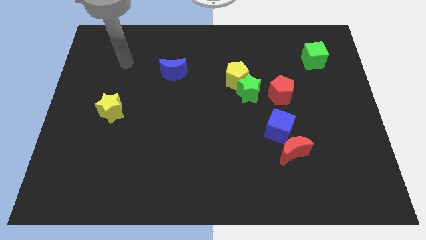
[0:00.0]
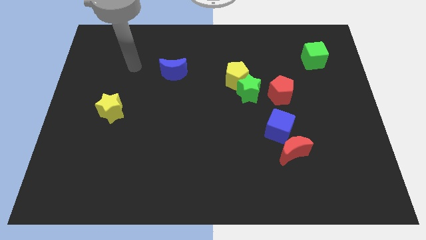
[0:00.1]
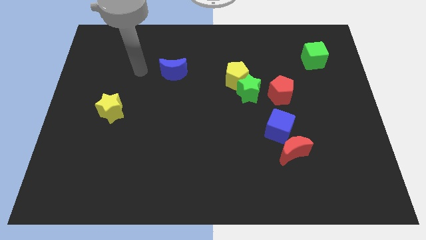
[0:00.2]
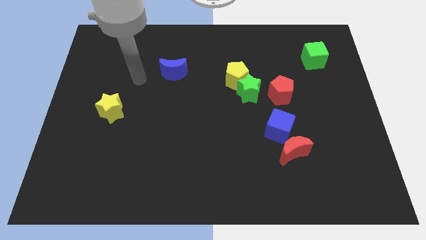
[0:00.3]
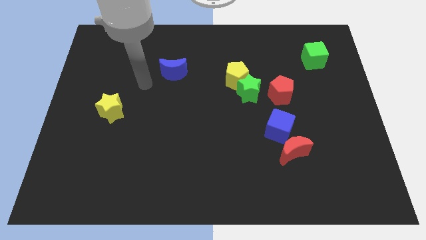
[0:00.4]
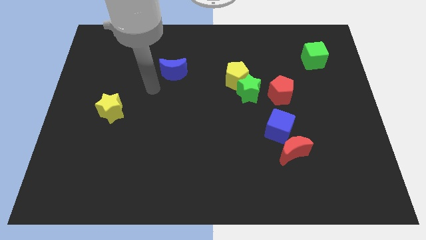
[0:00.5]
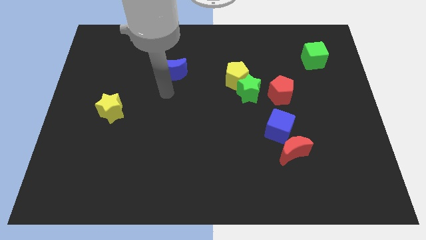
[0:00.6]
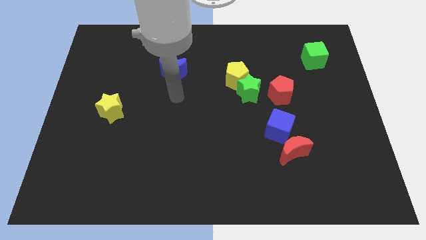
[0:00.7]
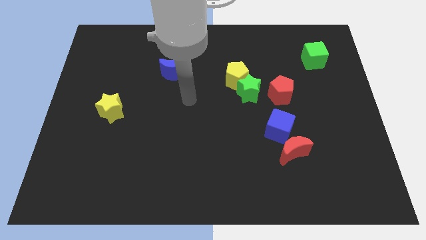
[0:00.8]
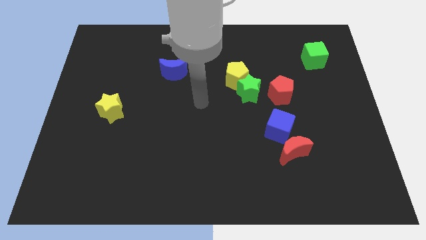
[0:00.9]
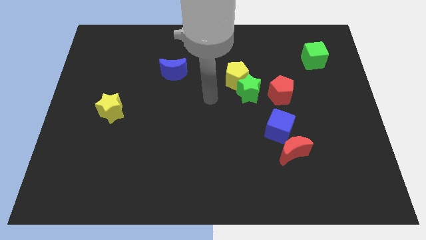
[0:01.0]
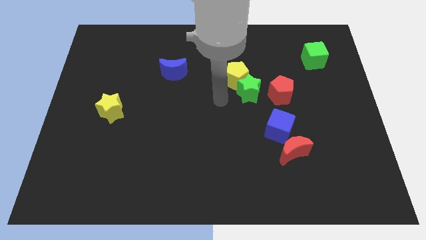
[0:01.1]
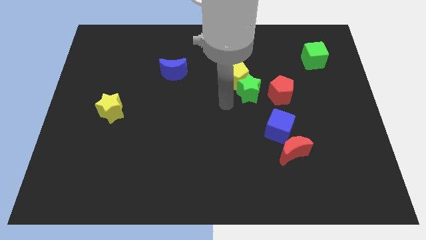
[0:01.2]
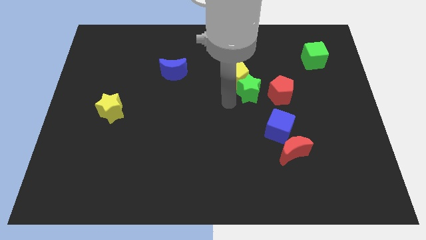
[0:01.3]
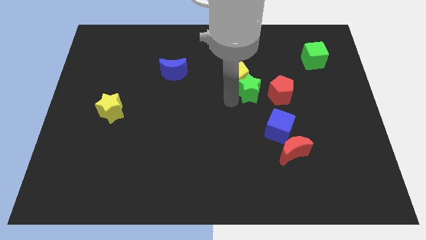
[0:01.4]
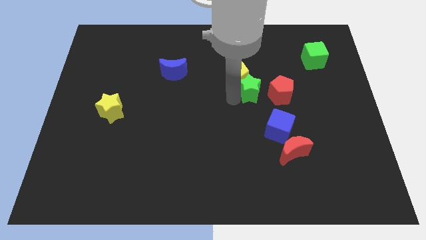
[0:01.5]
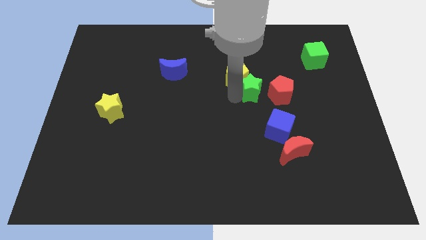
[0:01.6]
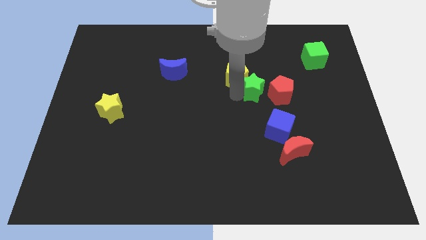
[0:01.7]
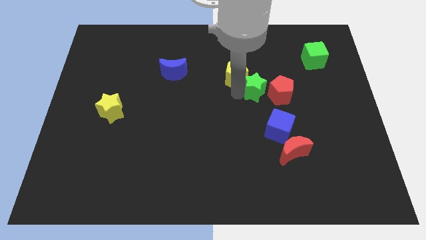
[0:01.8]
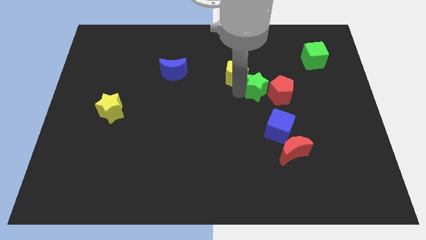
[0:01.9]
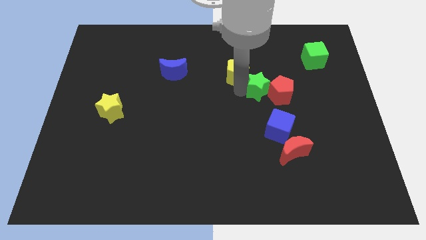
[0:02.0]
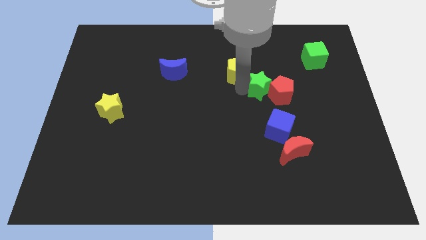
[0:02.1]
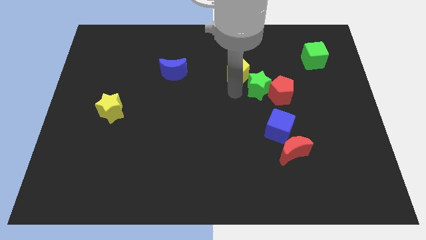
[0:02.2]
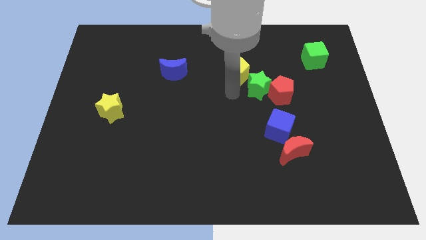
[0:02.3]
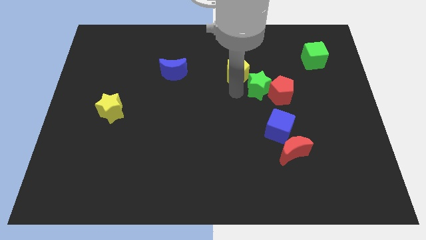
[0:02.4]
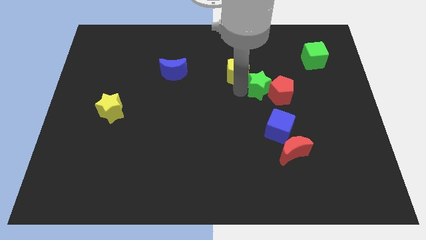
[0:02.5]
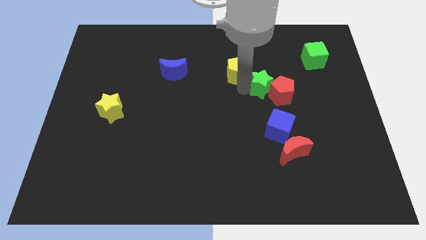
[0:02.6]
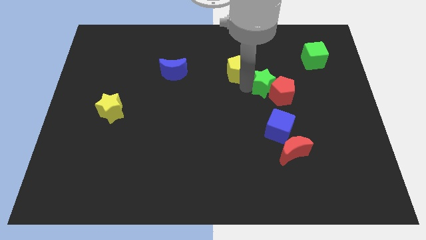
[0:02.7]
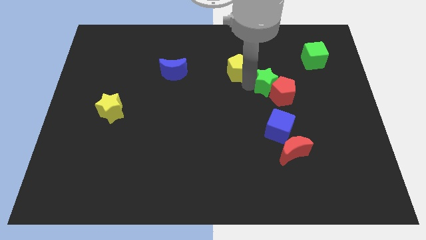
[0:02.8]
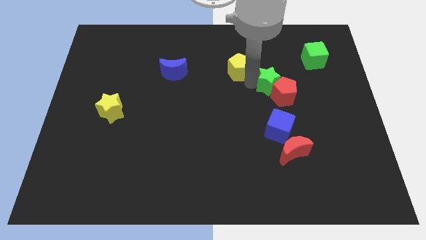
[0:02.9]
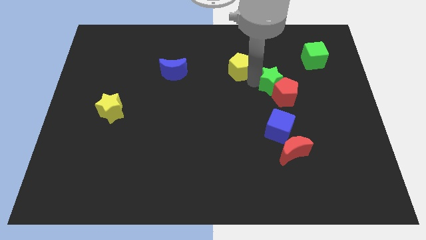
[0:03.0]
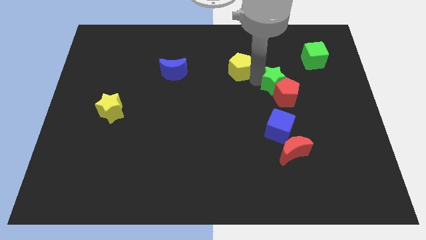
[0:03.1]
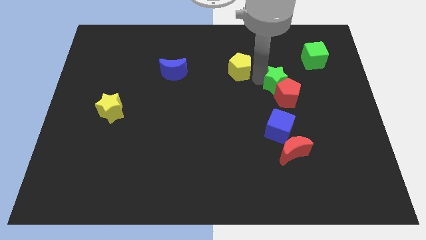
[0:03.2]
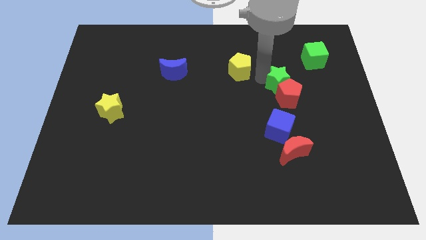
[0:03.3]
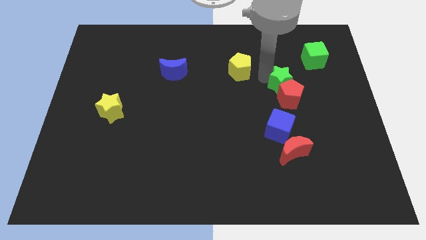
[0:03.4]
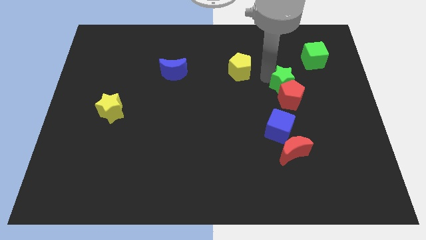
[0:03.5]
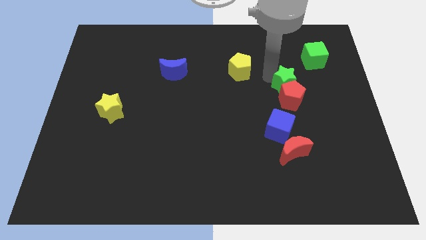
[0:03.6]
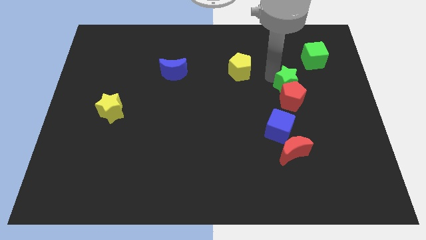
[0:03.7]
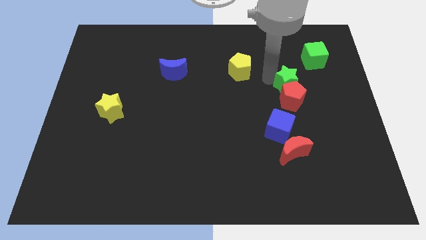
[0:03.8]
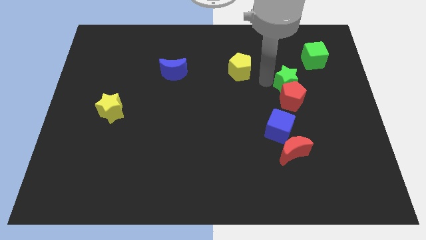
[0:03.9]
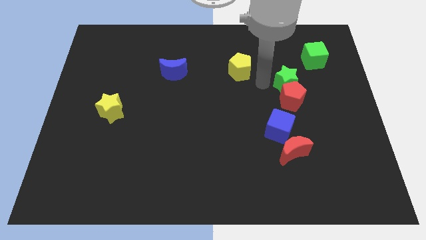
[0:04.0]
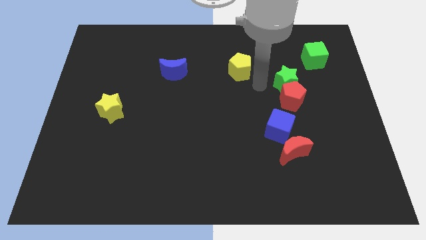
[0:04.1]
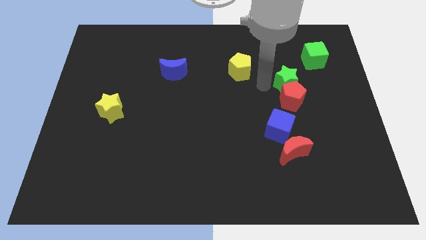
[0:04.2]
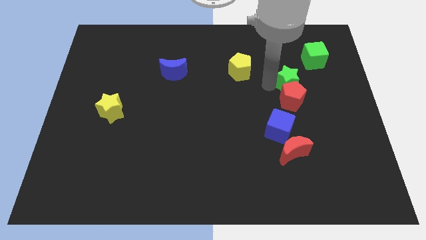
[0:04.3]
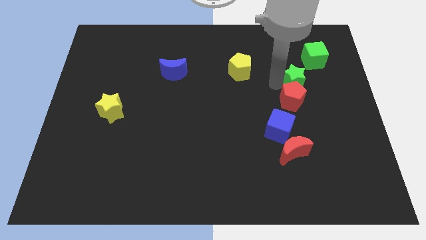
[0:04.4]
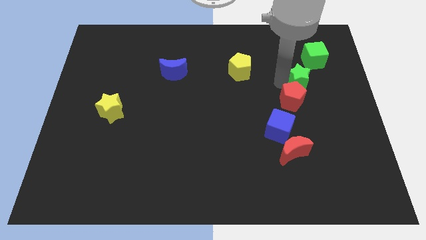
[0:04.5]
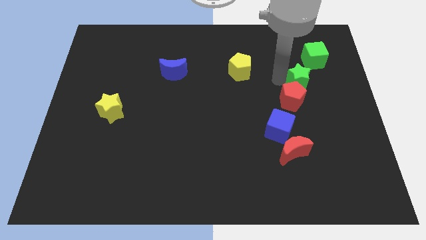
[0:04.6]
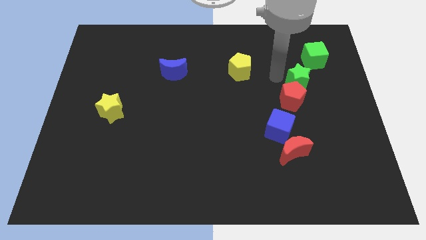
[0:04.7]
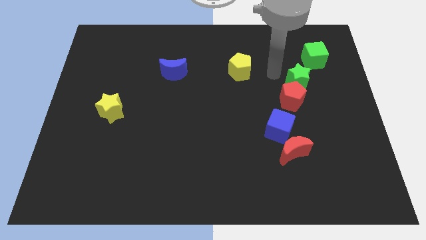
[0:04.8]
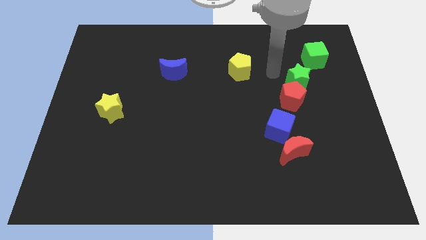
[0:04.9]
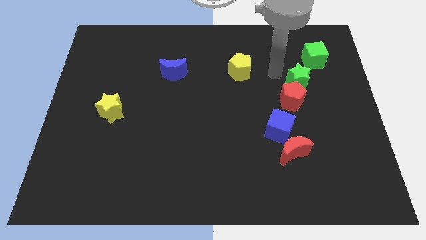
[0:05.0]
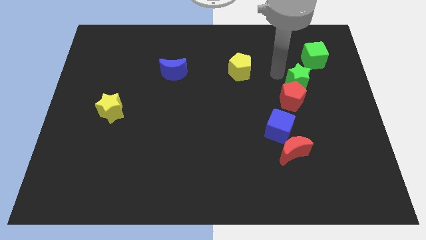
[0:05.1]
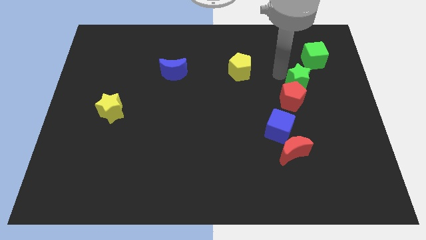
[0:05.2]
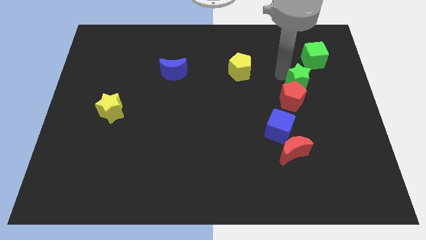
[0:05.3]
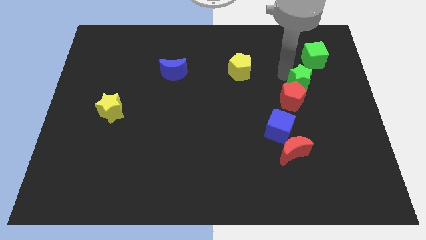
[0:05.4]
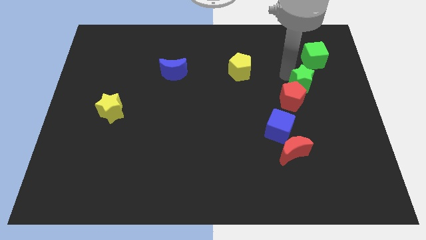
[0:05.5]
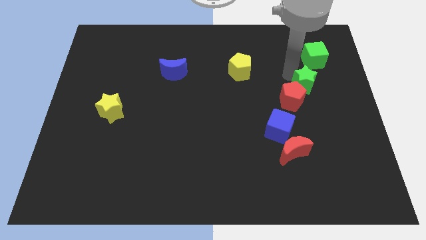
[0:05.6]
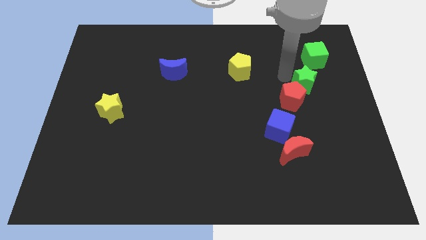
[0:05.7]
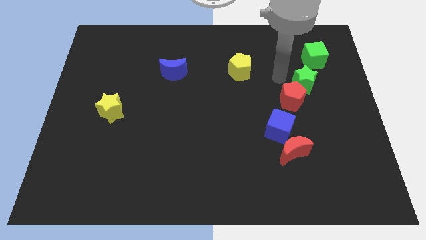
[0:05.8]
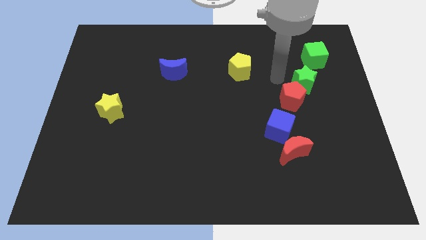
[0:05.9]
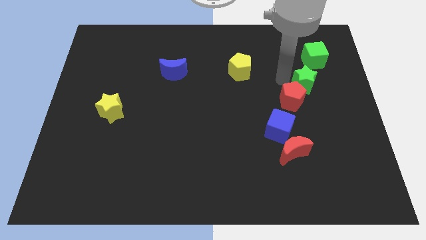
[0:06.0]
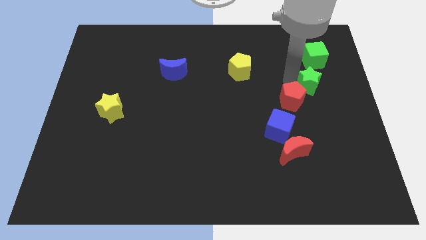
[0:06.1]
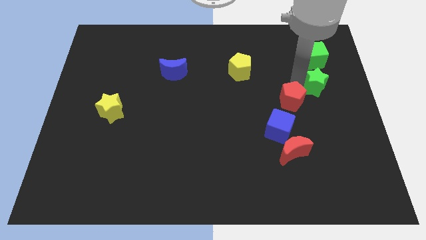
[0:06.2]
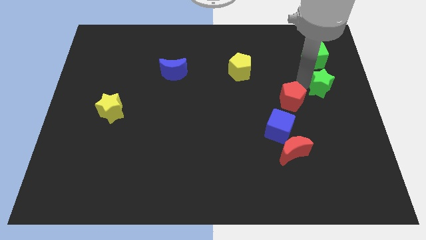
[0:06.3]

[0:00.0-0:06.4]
slide the green star to the right side of the board
